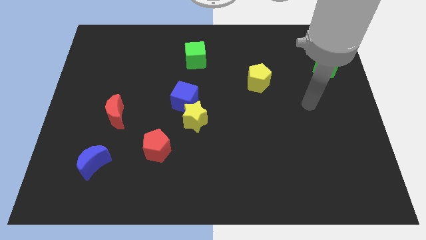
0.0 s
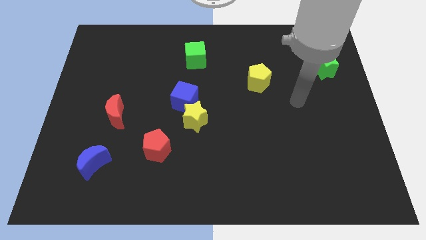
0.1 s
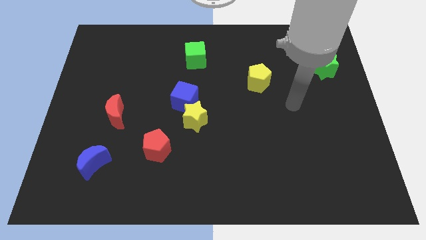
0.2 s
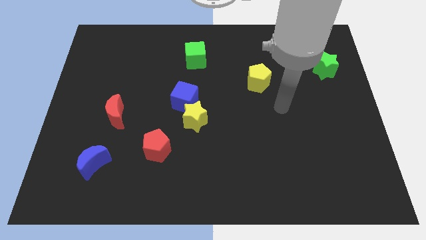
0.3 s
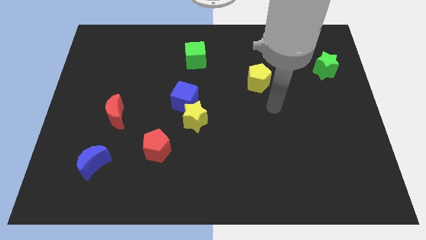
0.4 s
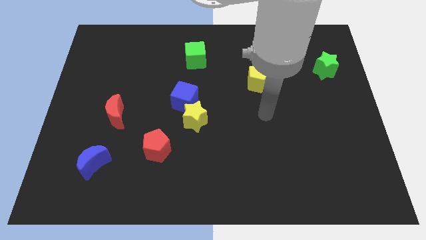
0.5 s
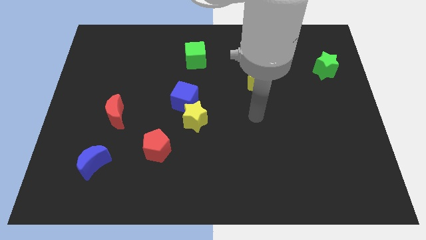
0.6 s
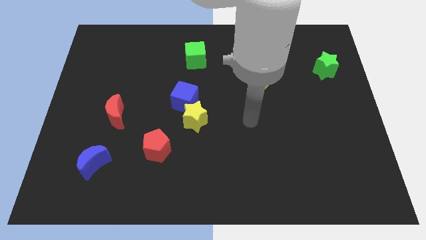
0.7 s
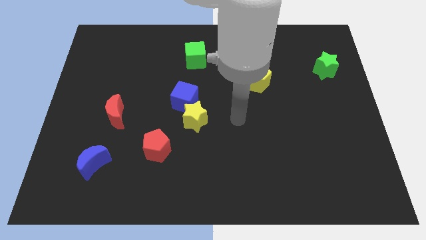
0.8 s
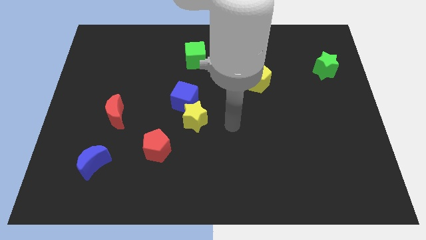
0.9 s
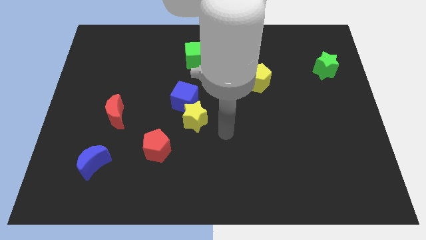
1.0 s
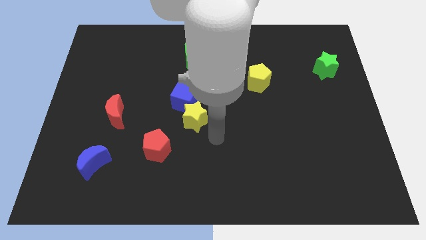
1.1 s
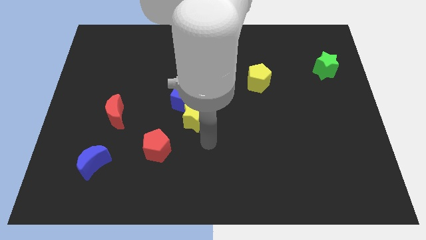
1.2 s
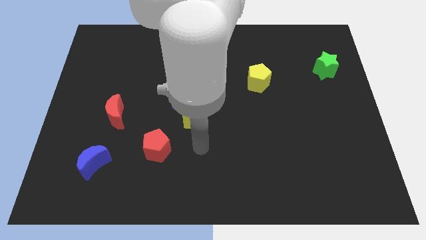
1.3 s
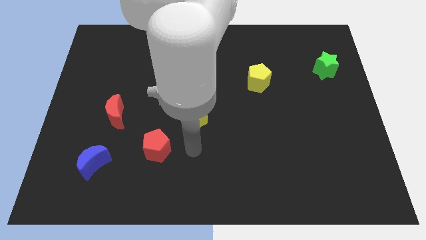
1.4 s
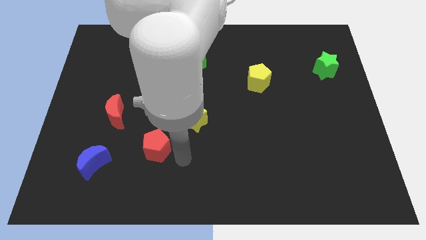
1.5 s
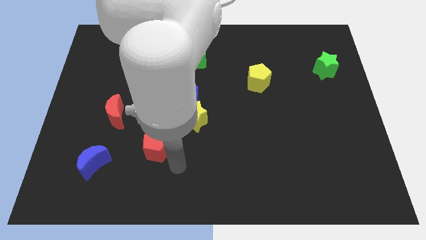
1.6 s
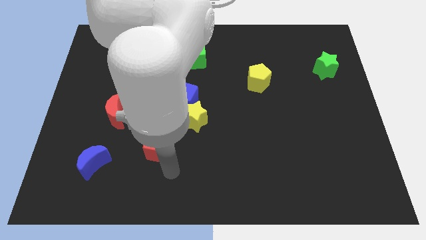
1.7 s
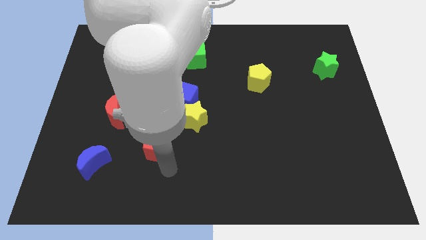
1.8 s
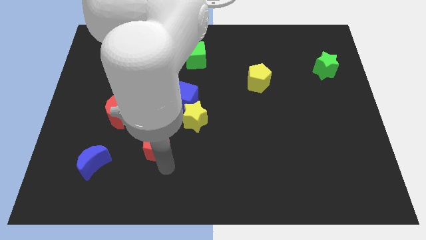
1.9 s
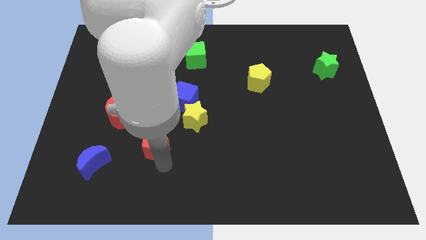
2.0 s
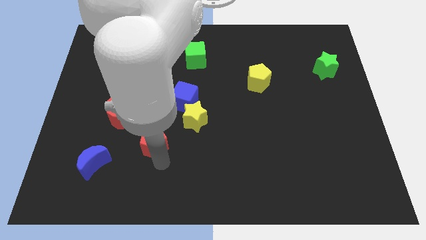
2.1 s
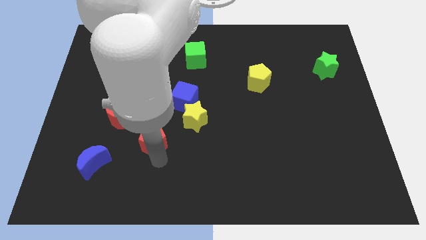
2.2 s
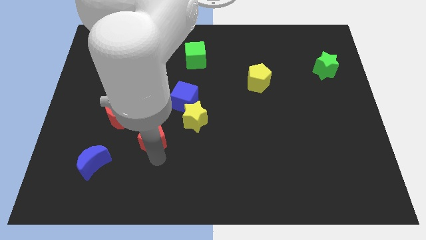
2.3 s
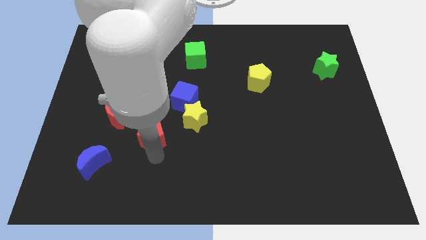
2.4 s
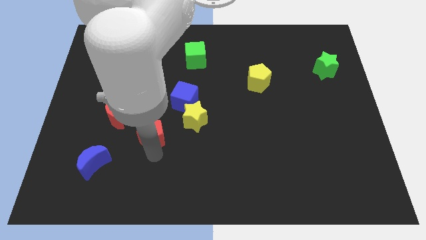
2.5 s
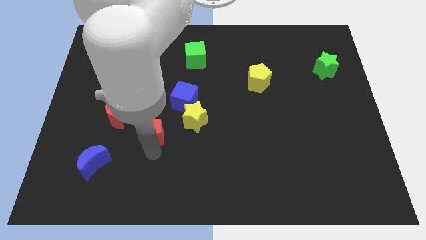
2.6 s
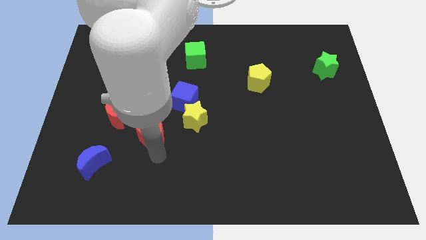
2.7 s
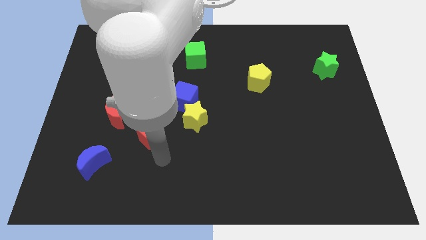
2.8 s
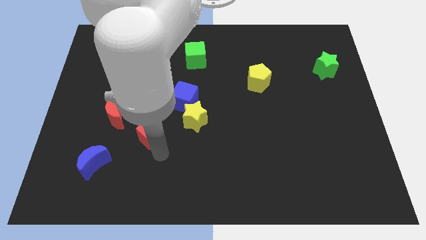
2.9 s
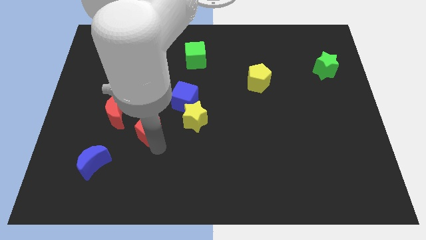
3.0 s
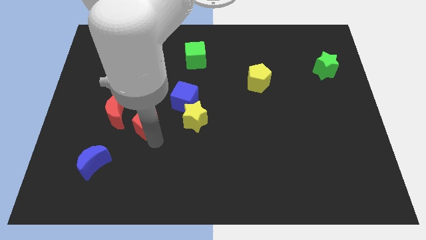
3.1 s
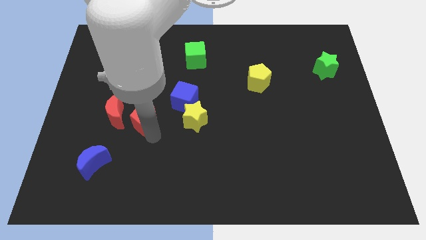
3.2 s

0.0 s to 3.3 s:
push the red pentagon diagonally up and left a bit

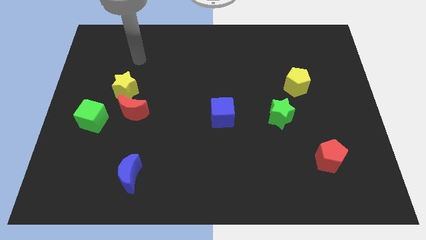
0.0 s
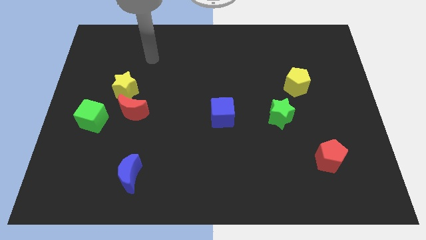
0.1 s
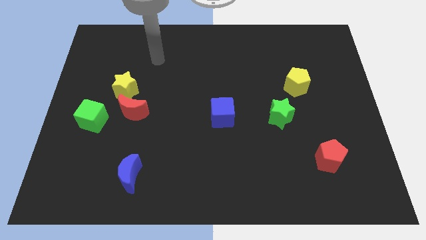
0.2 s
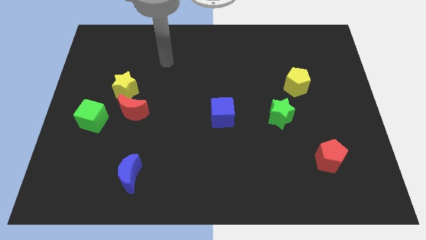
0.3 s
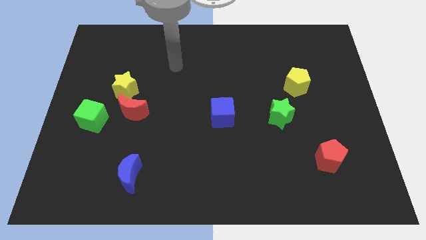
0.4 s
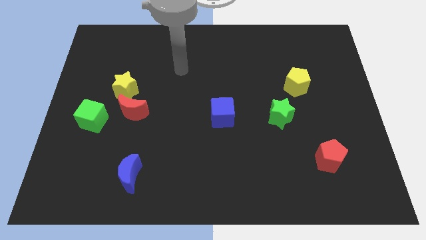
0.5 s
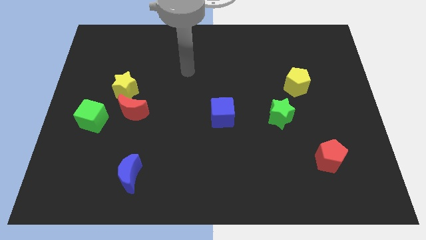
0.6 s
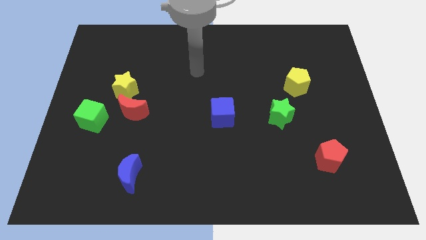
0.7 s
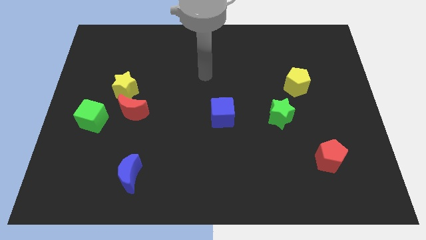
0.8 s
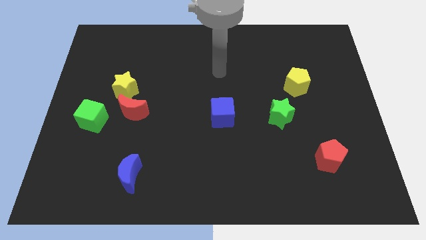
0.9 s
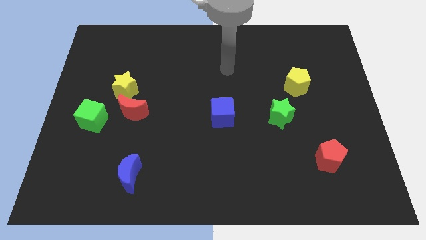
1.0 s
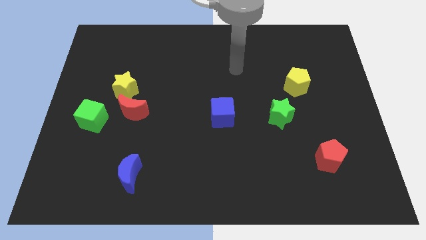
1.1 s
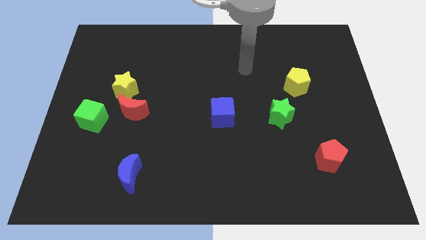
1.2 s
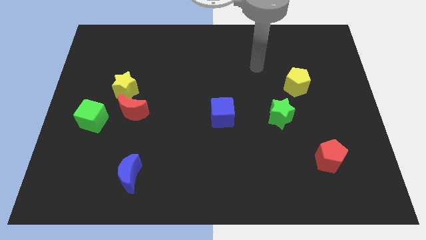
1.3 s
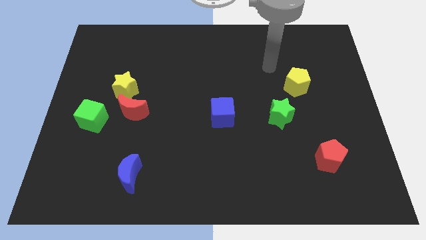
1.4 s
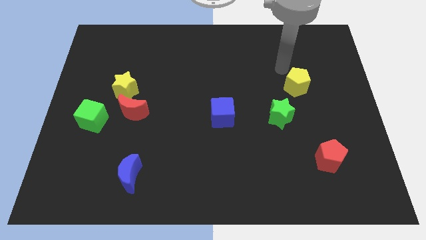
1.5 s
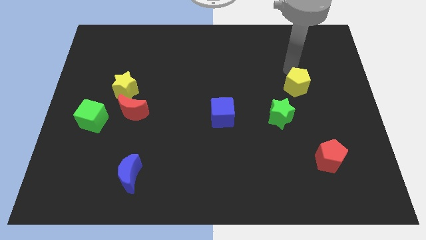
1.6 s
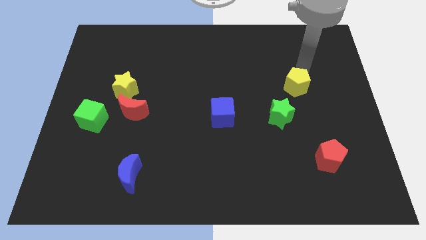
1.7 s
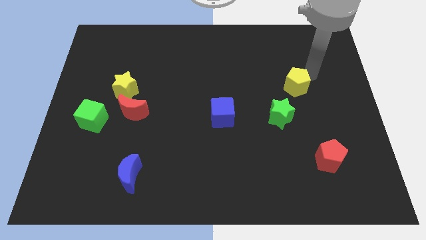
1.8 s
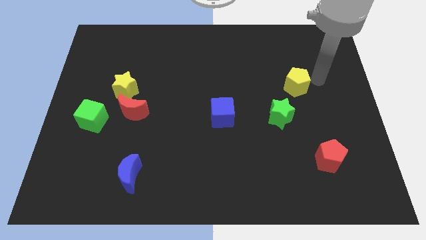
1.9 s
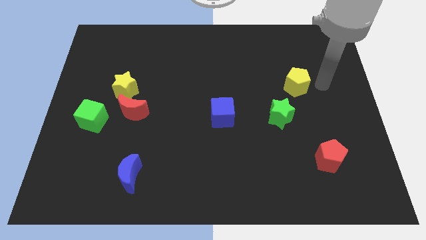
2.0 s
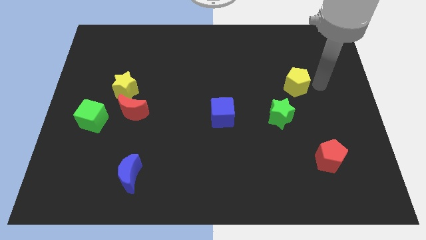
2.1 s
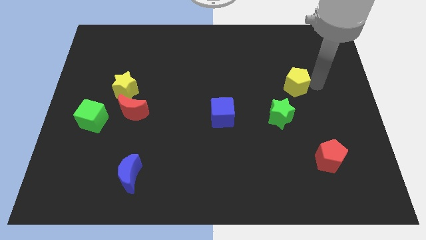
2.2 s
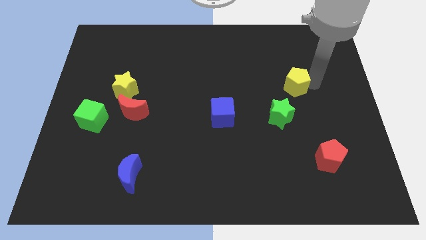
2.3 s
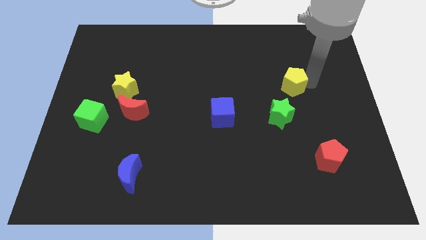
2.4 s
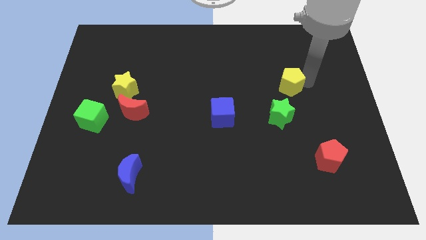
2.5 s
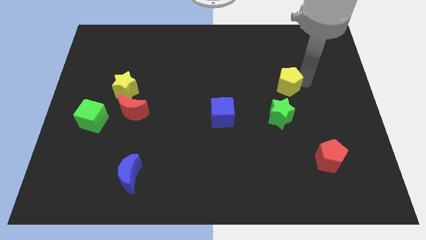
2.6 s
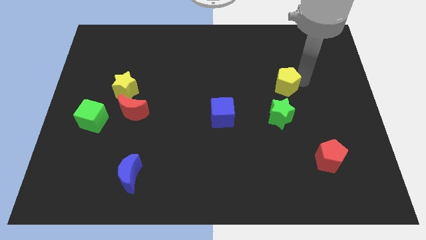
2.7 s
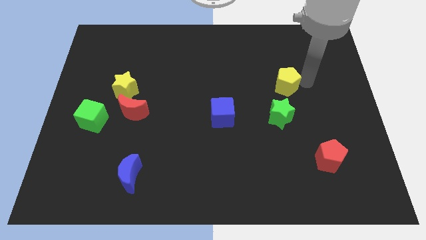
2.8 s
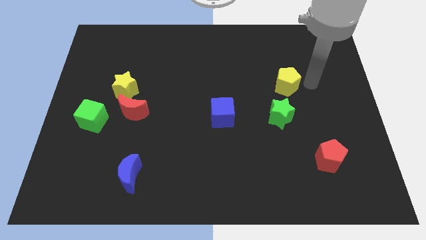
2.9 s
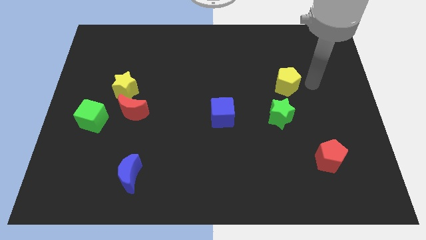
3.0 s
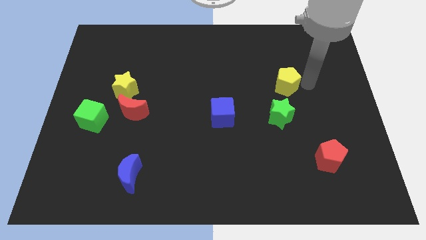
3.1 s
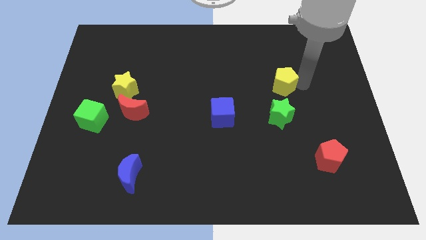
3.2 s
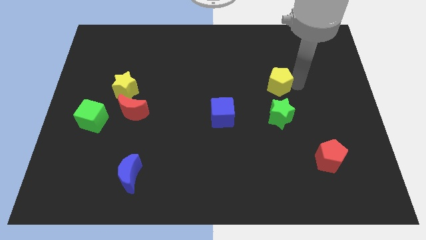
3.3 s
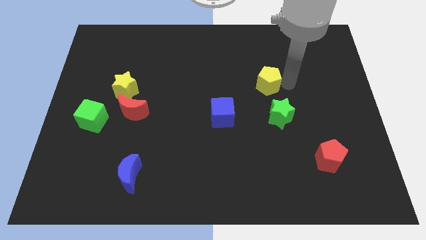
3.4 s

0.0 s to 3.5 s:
move the yellow pentagon to the left a little

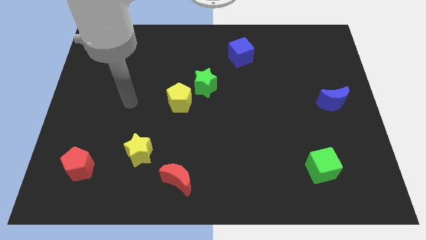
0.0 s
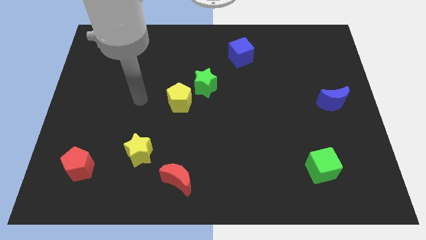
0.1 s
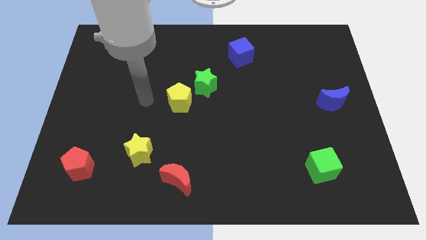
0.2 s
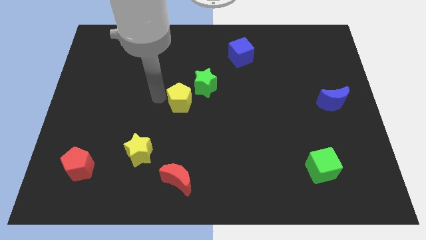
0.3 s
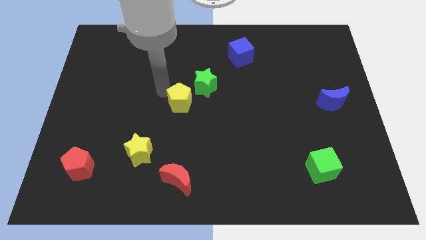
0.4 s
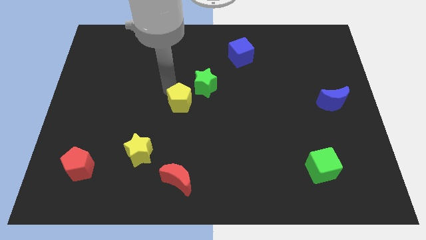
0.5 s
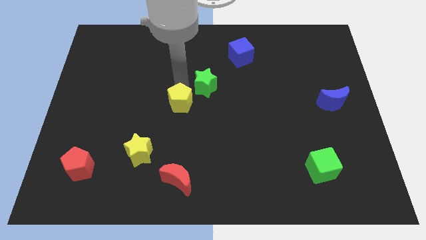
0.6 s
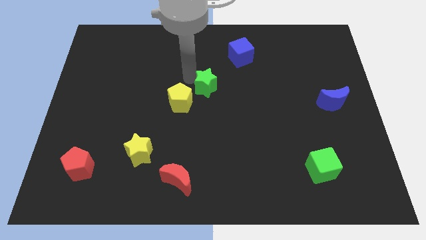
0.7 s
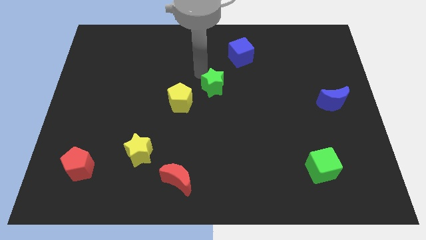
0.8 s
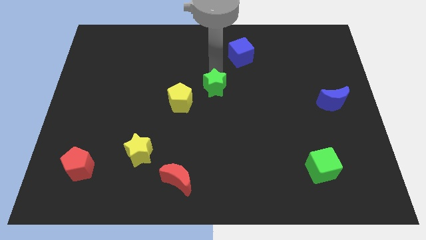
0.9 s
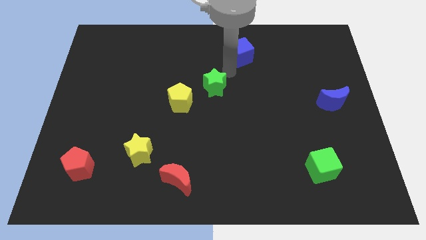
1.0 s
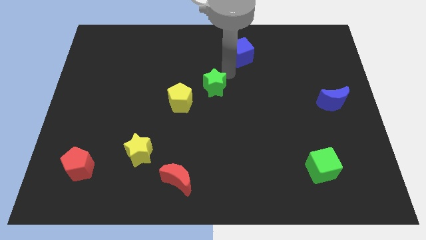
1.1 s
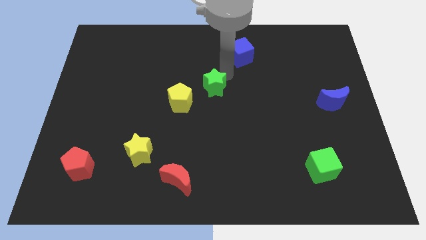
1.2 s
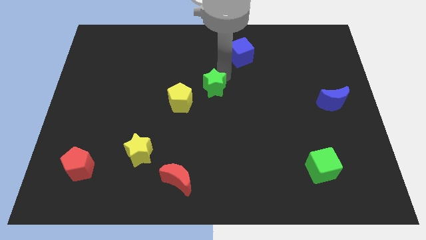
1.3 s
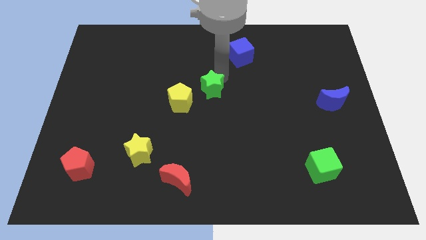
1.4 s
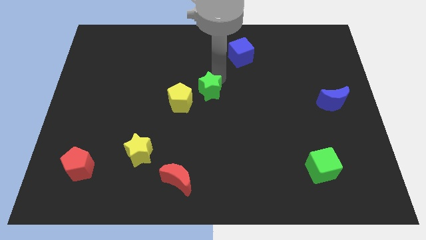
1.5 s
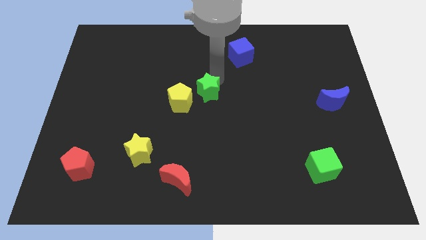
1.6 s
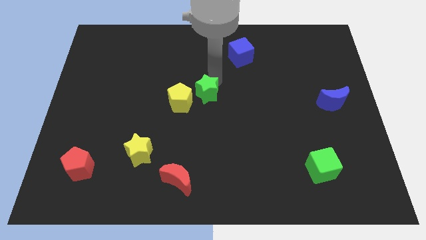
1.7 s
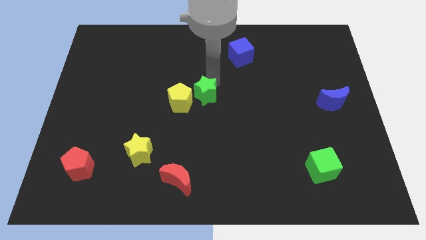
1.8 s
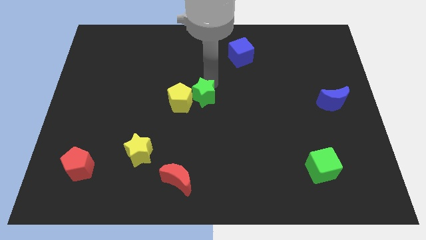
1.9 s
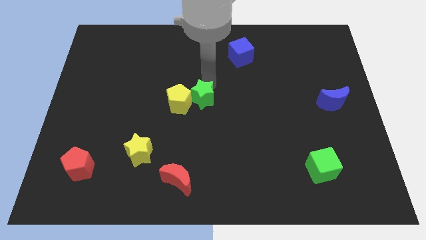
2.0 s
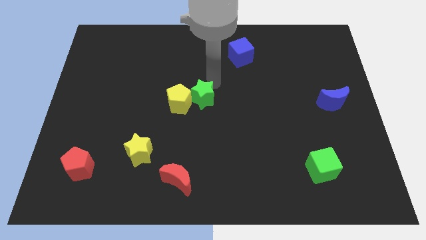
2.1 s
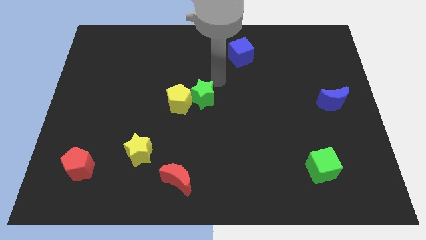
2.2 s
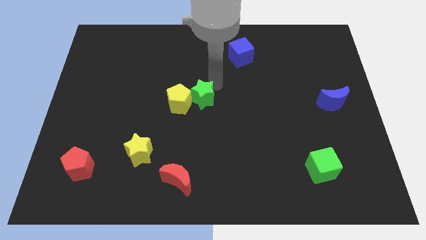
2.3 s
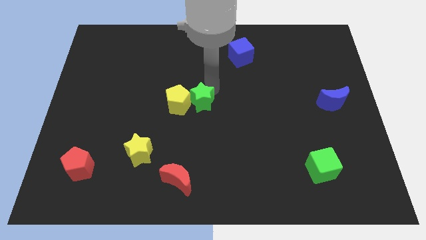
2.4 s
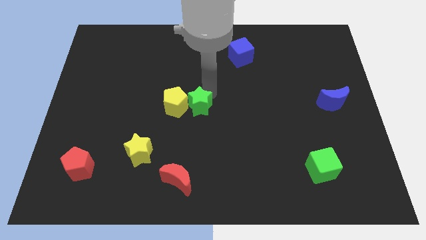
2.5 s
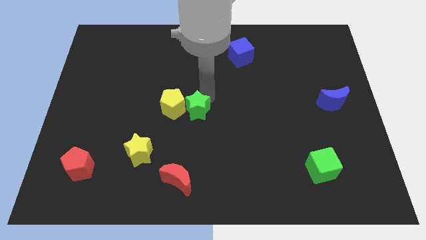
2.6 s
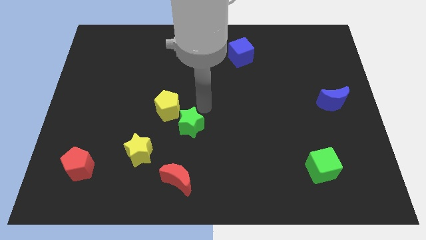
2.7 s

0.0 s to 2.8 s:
push the green star a bit diagonally down and left
